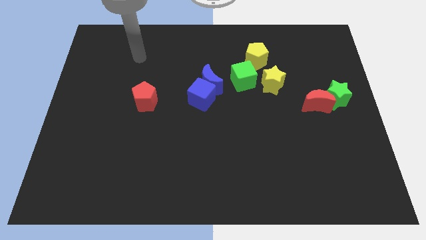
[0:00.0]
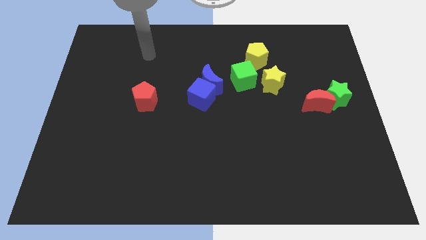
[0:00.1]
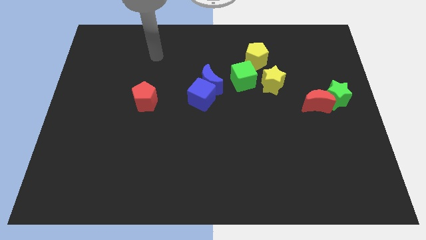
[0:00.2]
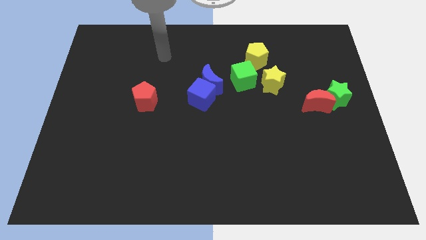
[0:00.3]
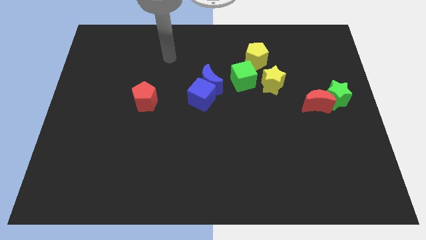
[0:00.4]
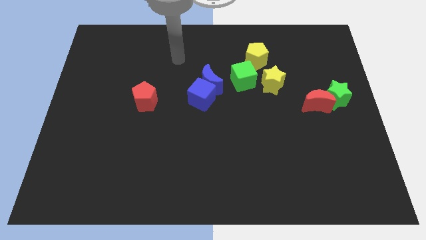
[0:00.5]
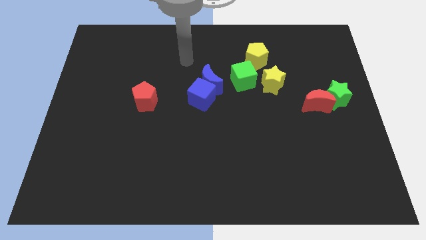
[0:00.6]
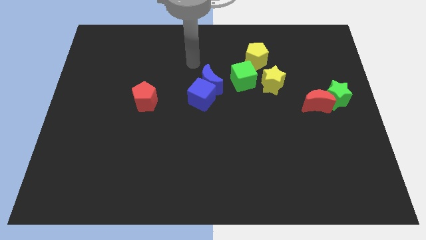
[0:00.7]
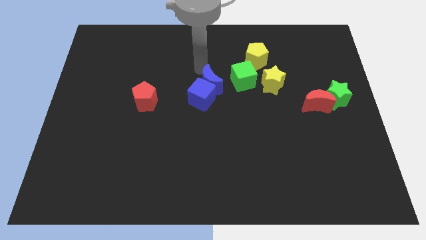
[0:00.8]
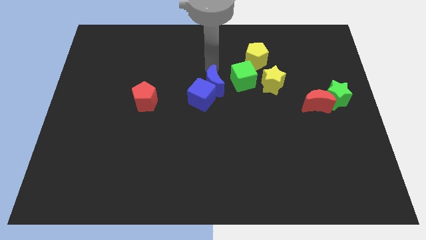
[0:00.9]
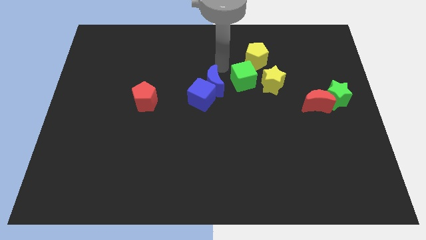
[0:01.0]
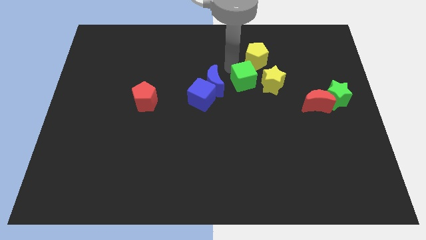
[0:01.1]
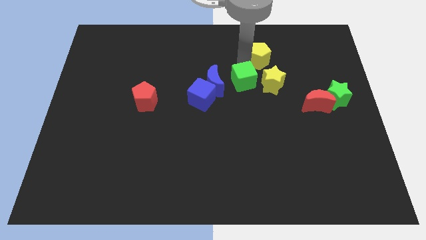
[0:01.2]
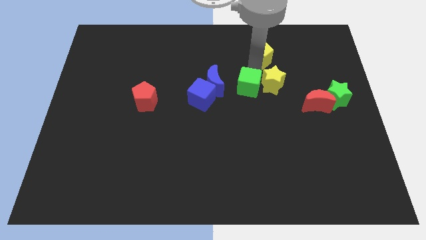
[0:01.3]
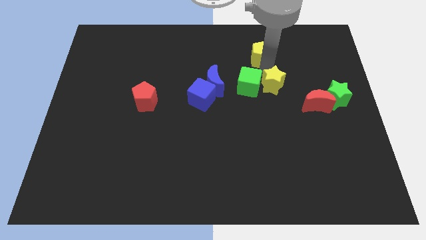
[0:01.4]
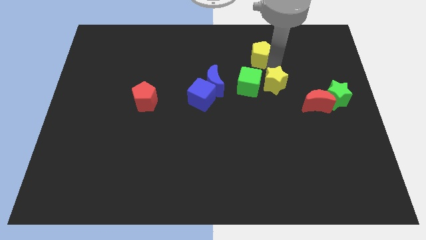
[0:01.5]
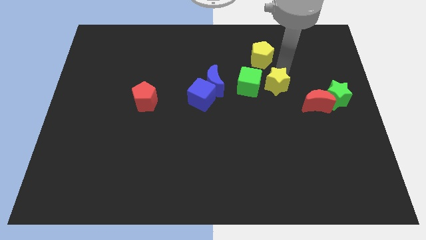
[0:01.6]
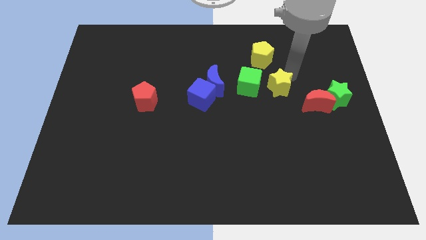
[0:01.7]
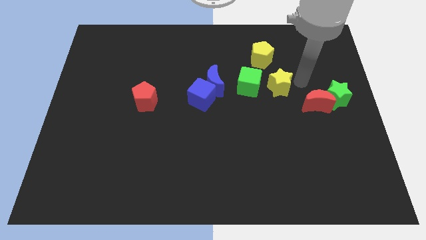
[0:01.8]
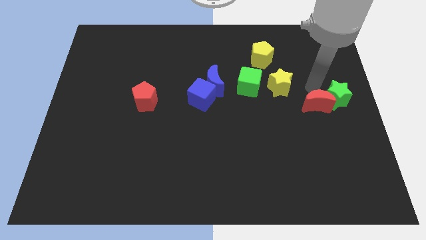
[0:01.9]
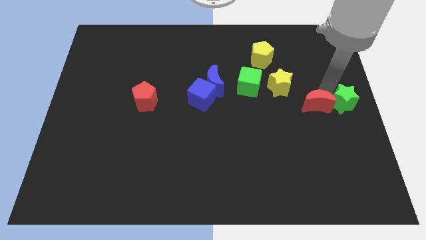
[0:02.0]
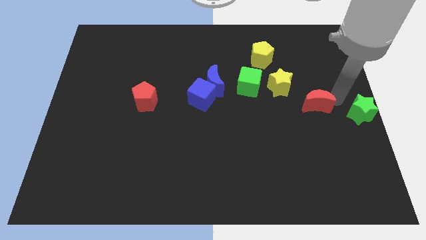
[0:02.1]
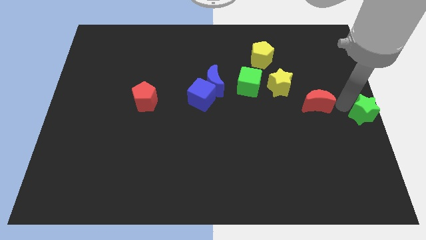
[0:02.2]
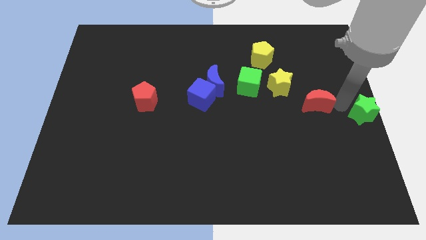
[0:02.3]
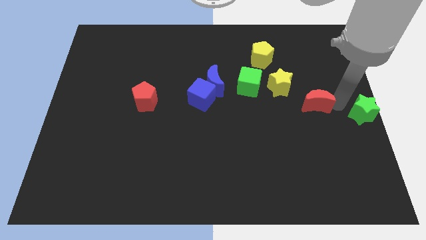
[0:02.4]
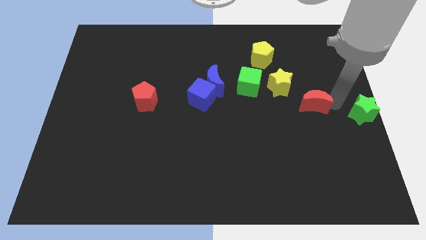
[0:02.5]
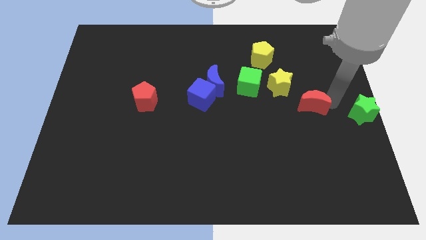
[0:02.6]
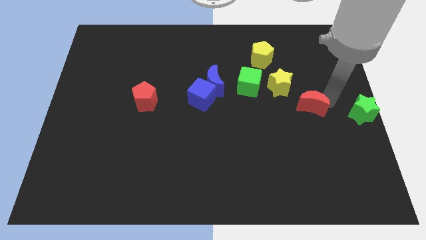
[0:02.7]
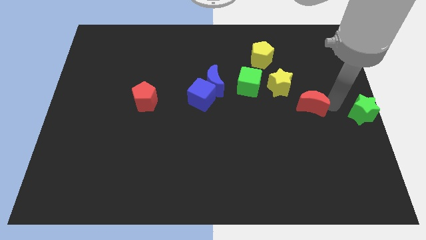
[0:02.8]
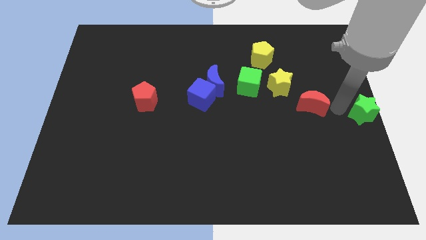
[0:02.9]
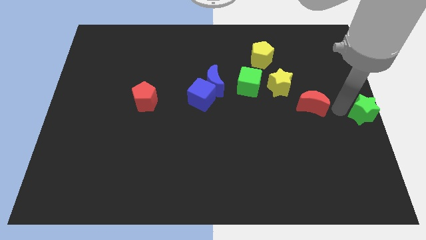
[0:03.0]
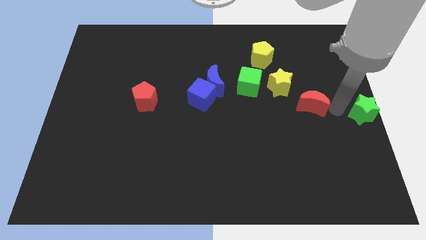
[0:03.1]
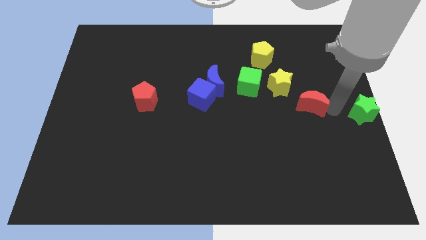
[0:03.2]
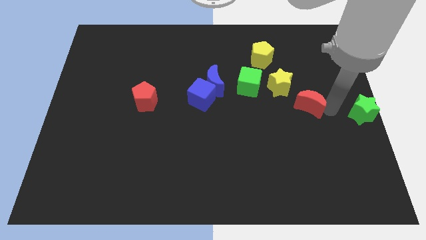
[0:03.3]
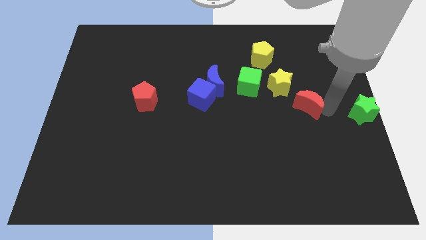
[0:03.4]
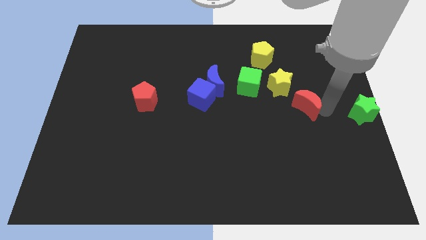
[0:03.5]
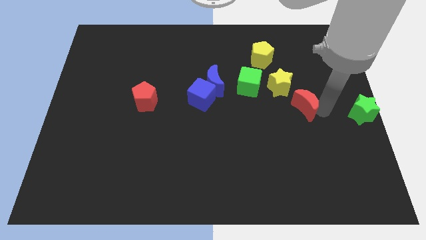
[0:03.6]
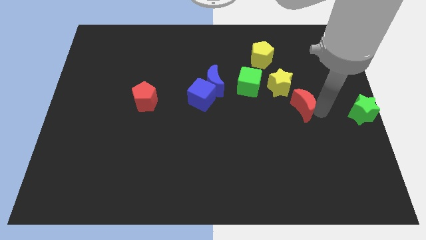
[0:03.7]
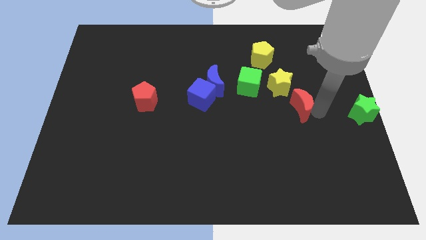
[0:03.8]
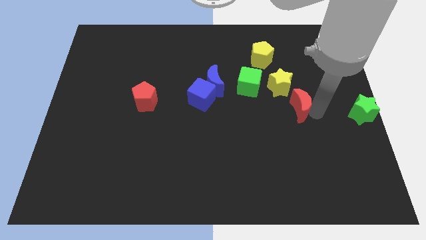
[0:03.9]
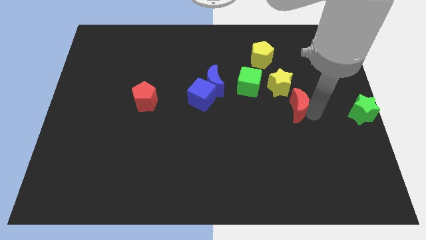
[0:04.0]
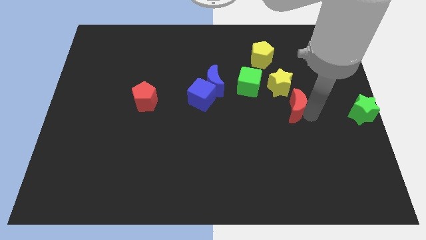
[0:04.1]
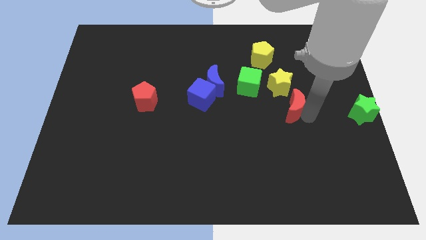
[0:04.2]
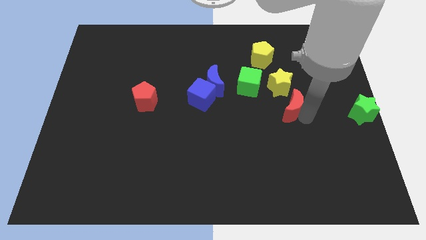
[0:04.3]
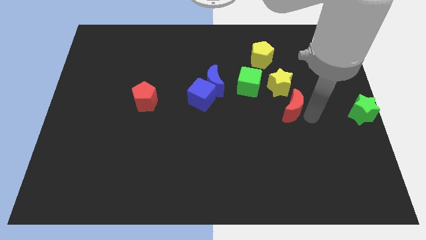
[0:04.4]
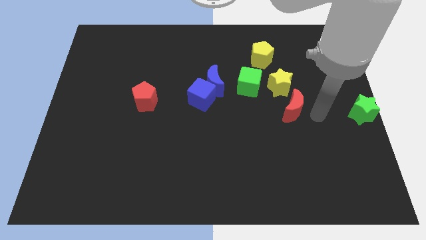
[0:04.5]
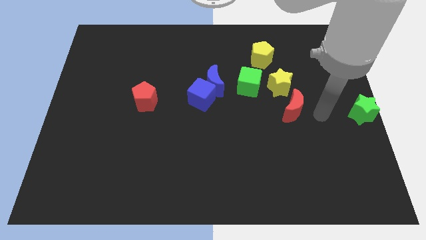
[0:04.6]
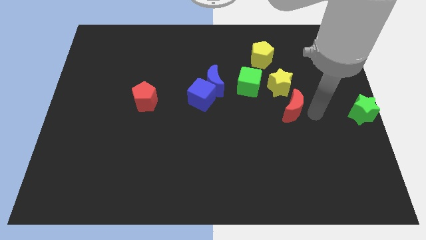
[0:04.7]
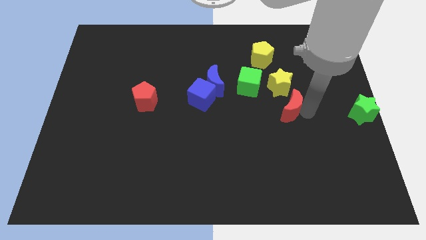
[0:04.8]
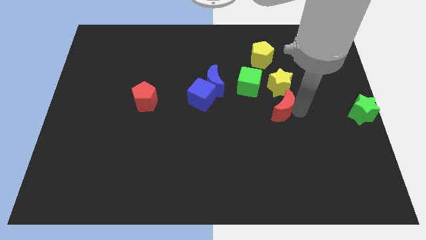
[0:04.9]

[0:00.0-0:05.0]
slightly push the red moon to the left

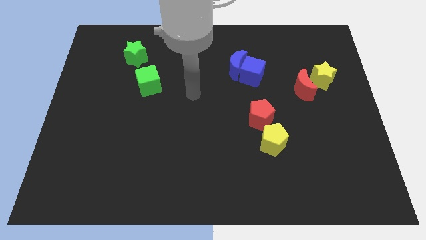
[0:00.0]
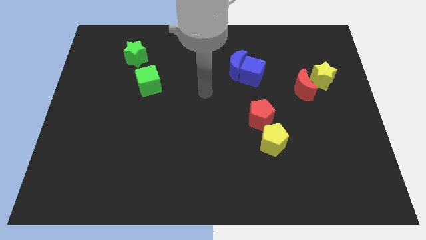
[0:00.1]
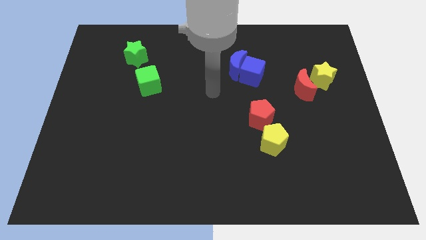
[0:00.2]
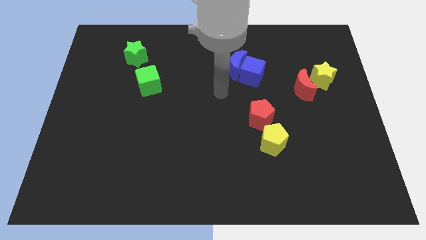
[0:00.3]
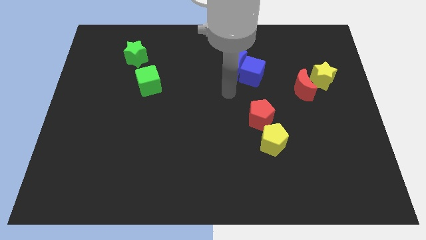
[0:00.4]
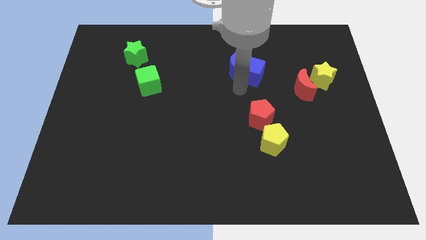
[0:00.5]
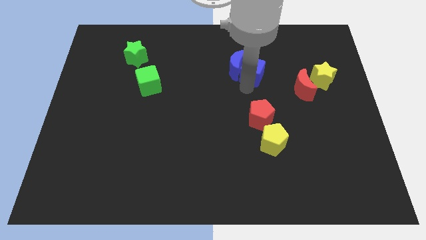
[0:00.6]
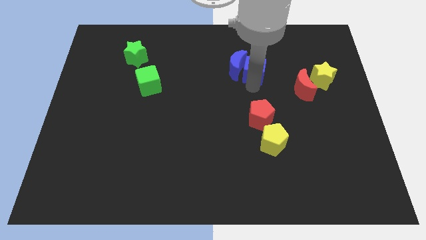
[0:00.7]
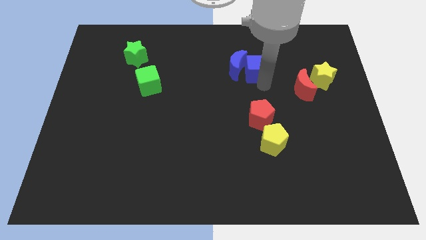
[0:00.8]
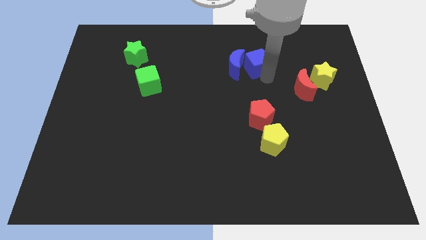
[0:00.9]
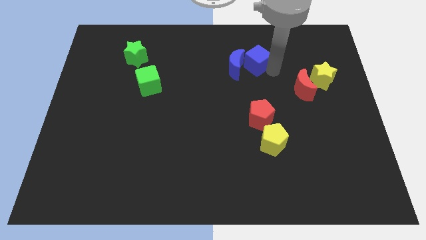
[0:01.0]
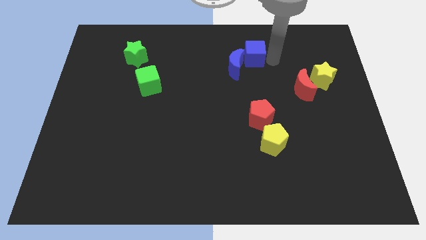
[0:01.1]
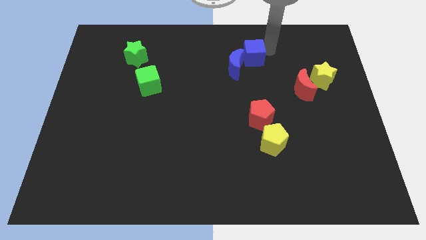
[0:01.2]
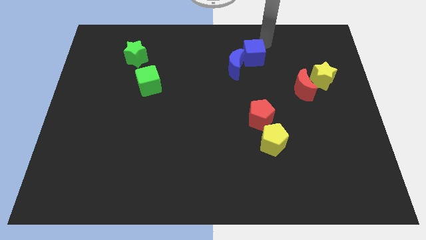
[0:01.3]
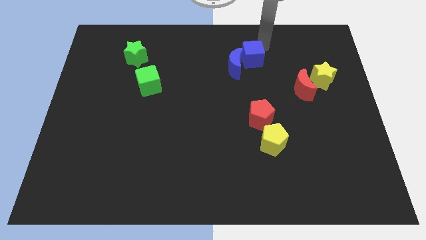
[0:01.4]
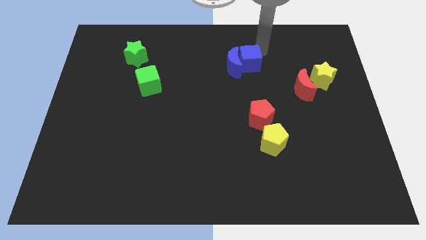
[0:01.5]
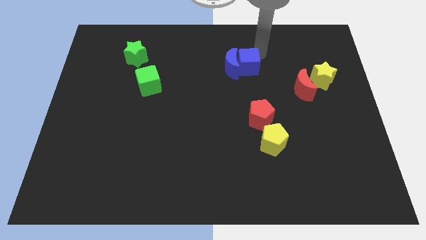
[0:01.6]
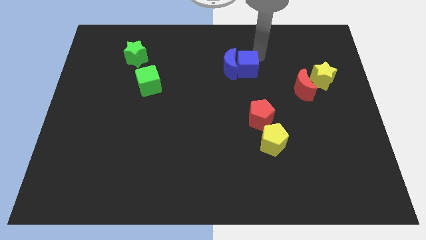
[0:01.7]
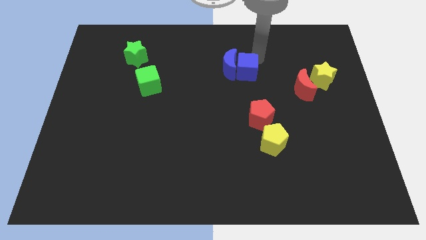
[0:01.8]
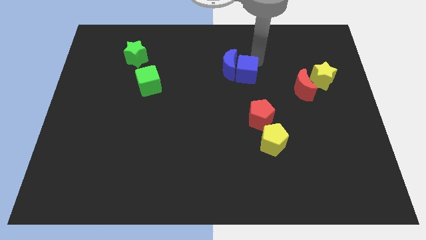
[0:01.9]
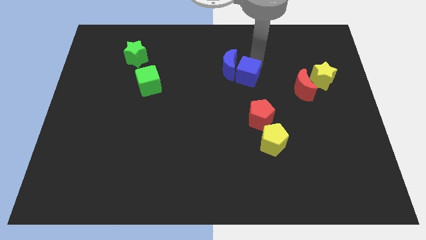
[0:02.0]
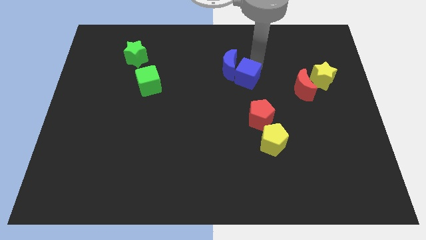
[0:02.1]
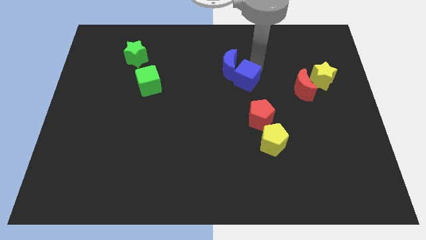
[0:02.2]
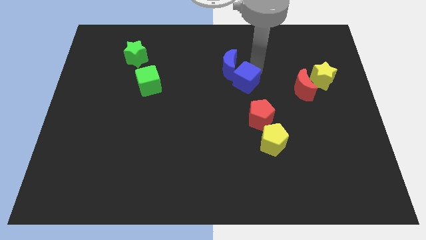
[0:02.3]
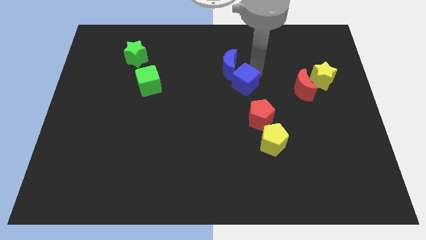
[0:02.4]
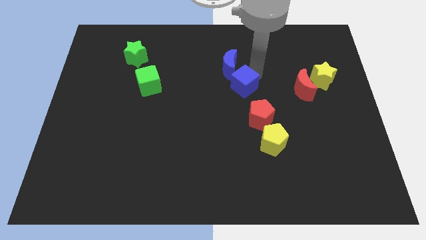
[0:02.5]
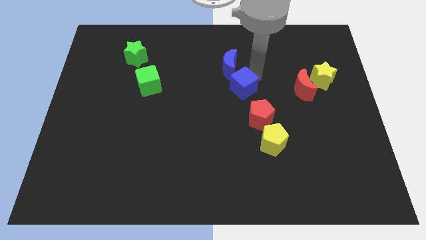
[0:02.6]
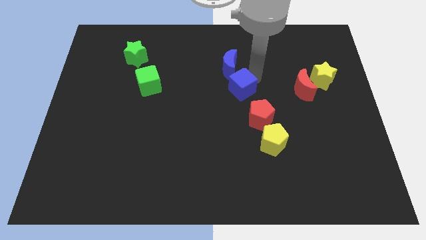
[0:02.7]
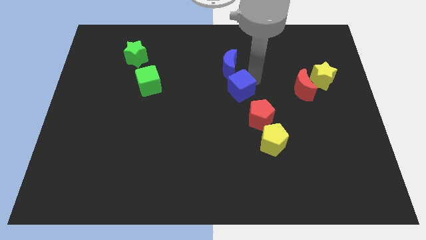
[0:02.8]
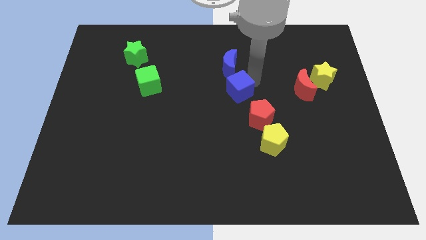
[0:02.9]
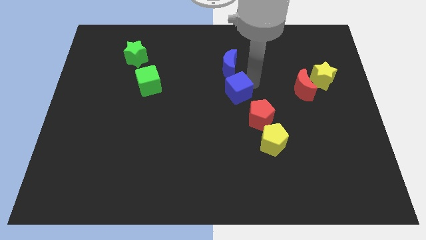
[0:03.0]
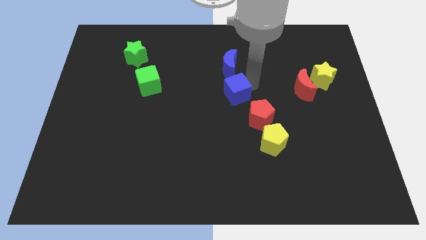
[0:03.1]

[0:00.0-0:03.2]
slide the blue cube a little bit diagonally down and to the left
